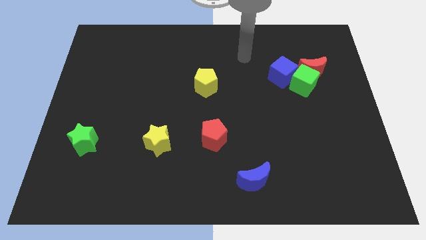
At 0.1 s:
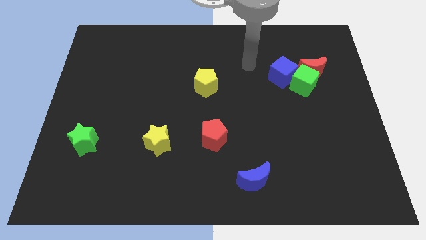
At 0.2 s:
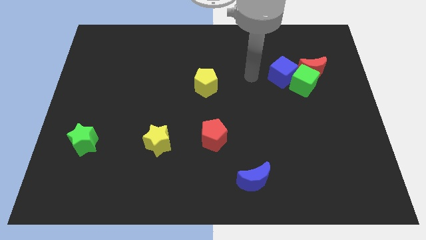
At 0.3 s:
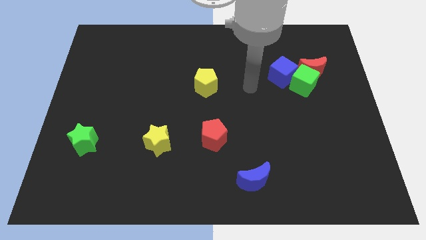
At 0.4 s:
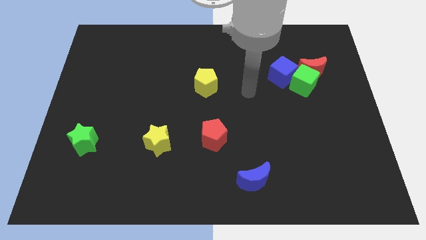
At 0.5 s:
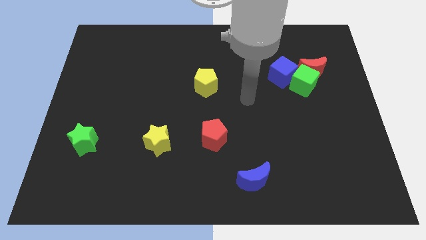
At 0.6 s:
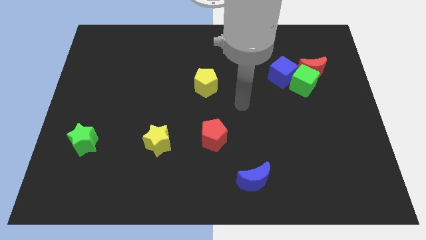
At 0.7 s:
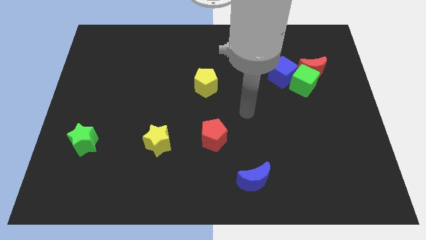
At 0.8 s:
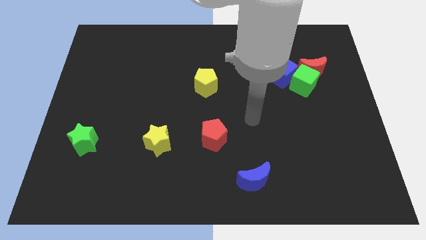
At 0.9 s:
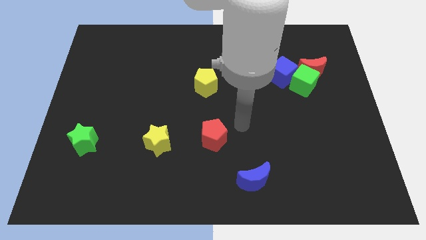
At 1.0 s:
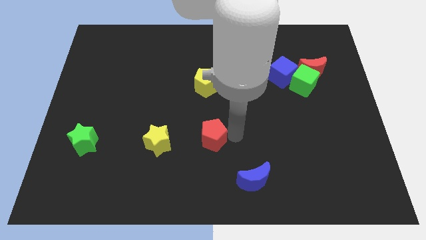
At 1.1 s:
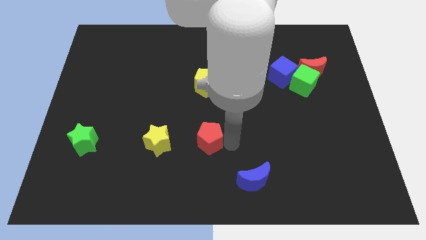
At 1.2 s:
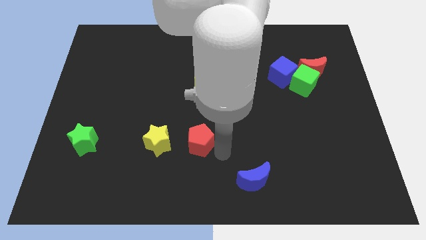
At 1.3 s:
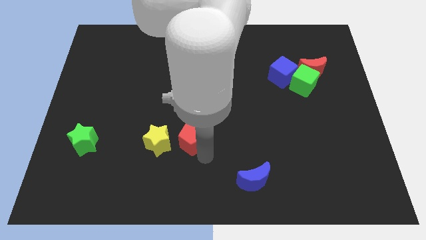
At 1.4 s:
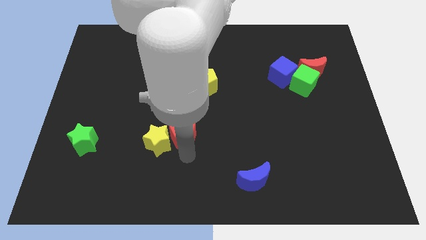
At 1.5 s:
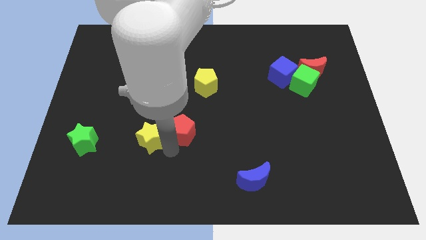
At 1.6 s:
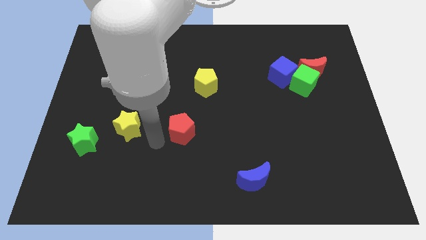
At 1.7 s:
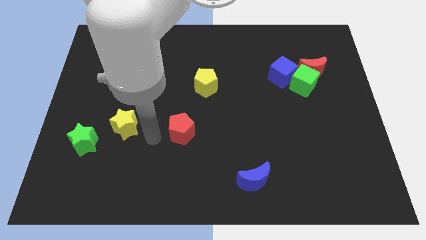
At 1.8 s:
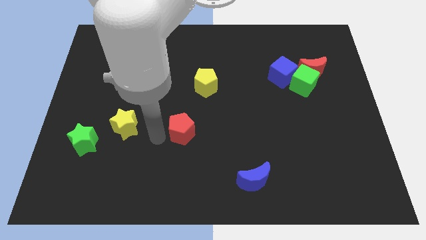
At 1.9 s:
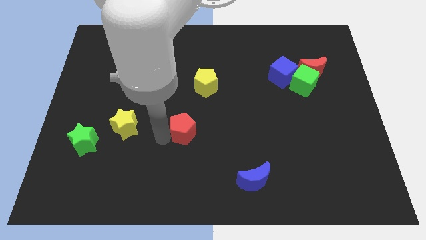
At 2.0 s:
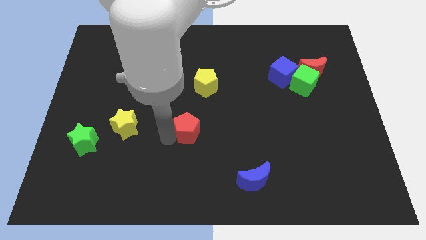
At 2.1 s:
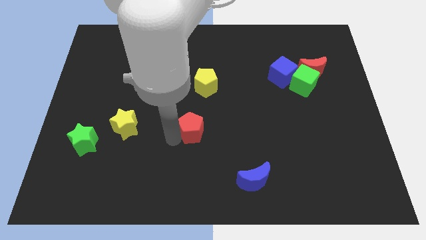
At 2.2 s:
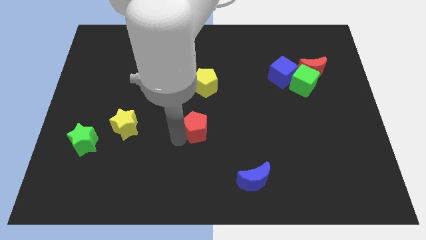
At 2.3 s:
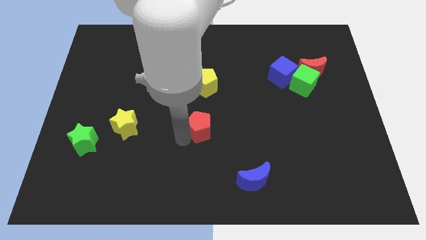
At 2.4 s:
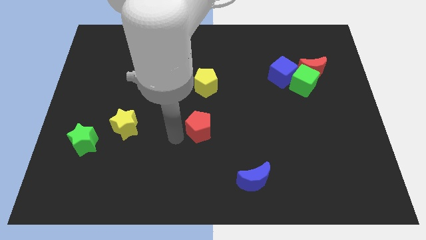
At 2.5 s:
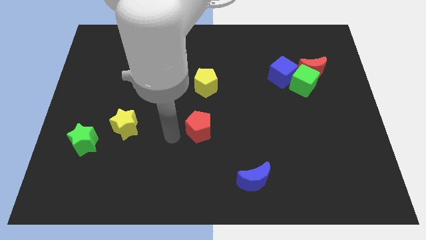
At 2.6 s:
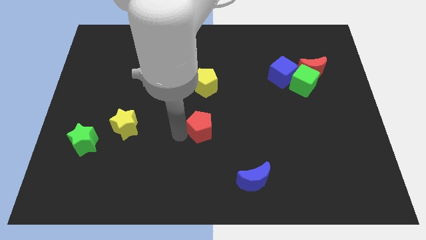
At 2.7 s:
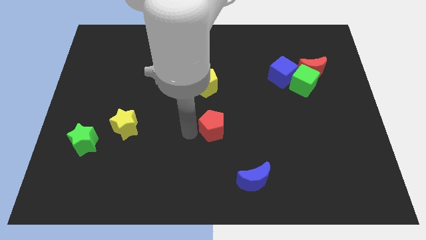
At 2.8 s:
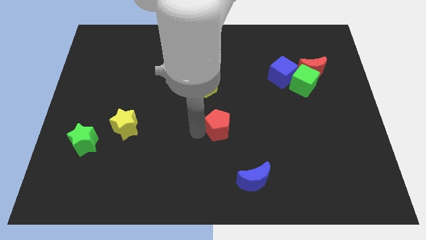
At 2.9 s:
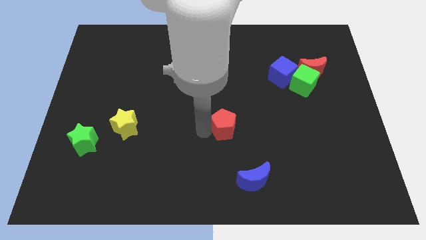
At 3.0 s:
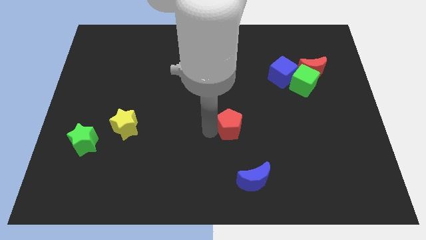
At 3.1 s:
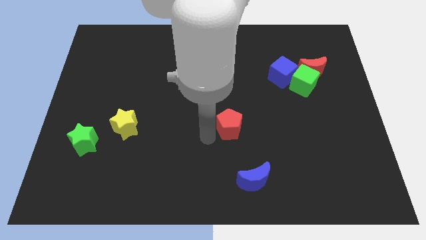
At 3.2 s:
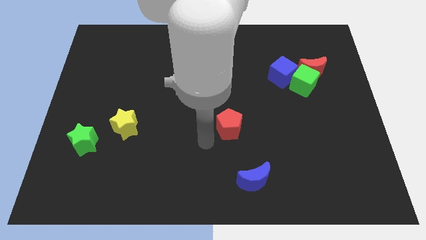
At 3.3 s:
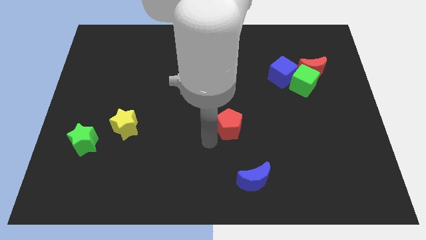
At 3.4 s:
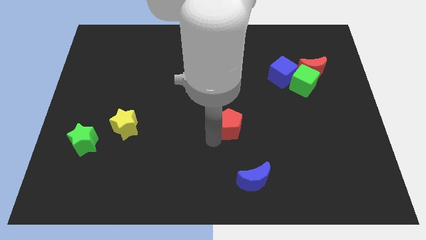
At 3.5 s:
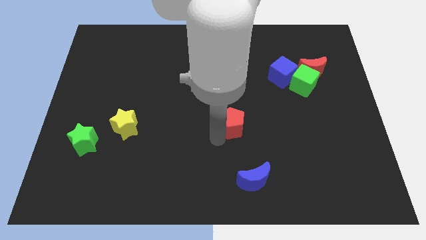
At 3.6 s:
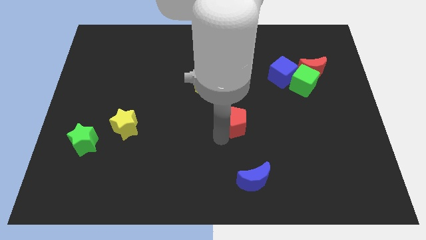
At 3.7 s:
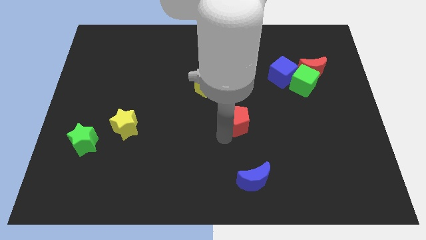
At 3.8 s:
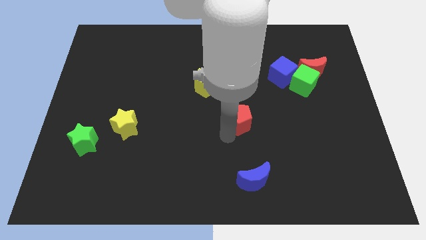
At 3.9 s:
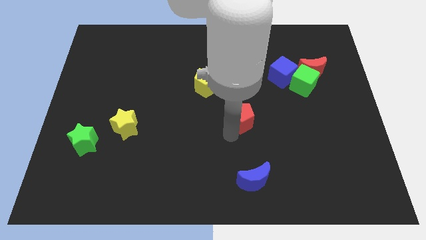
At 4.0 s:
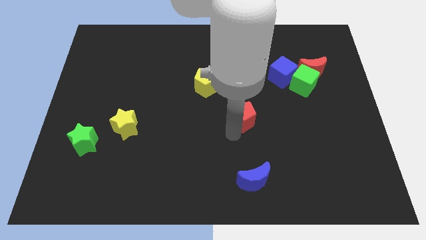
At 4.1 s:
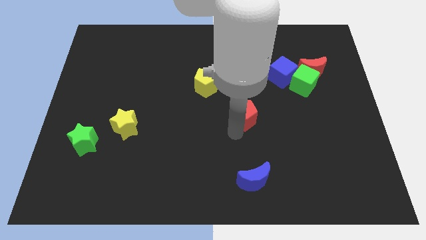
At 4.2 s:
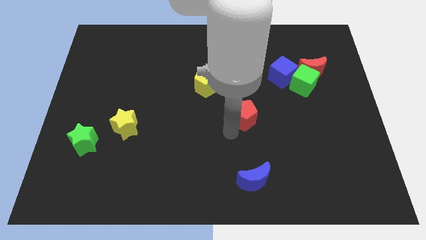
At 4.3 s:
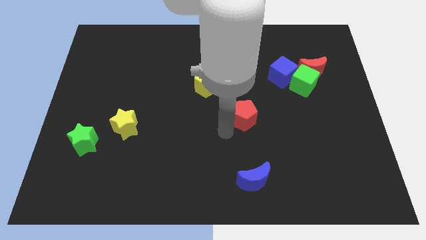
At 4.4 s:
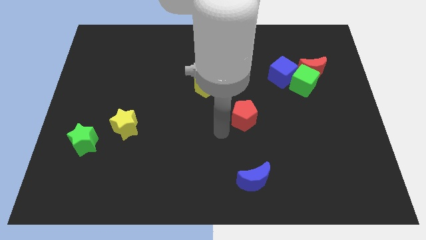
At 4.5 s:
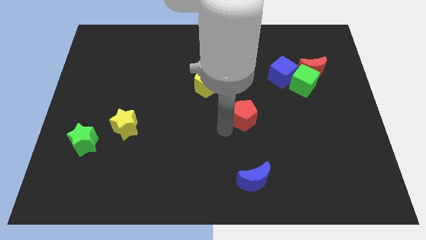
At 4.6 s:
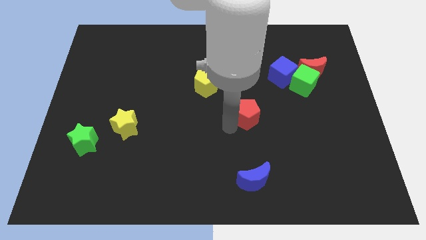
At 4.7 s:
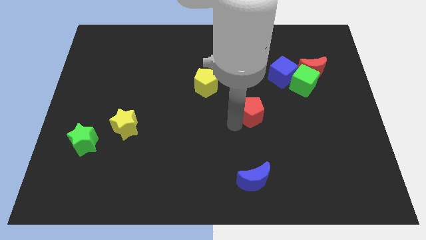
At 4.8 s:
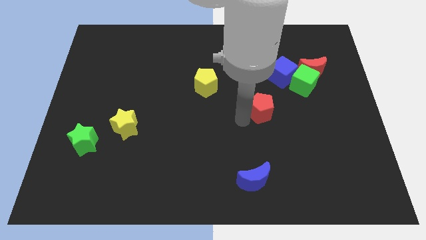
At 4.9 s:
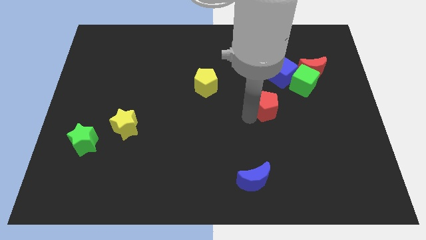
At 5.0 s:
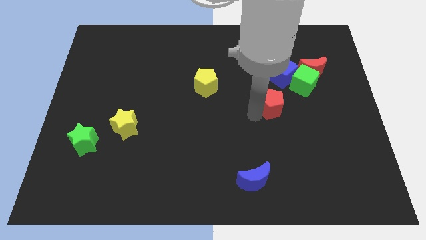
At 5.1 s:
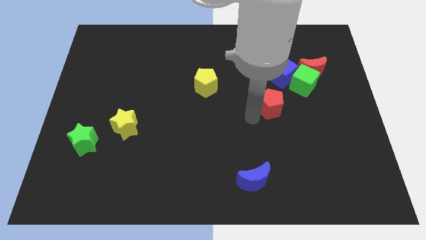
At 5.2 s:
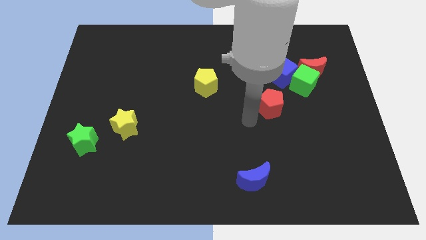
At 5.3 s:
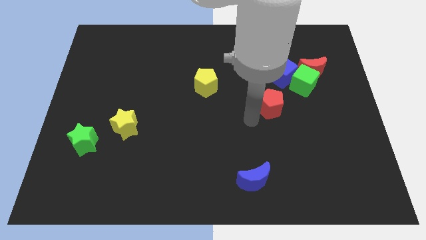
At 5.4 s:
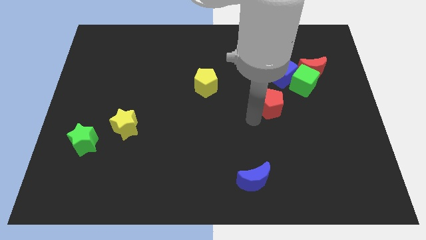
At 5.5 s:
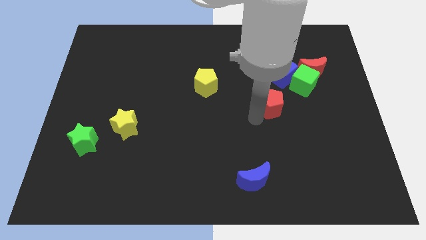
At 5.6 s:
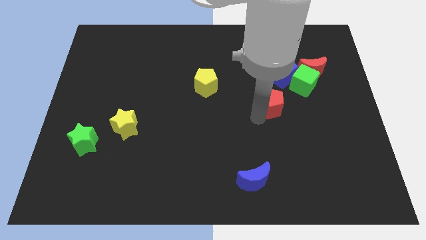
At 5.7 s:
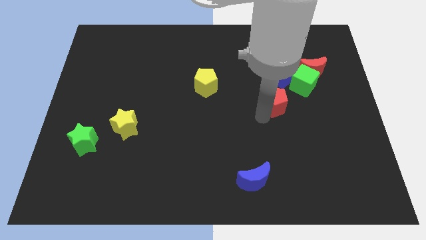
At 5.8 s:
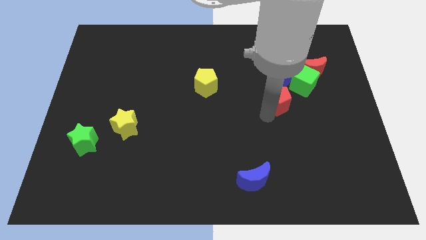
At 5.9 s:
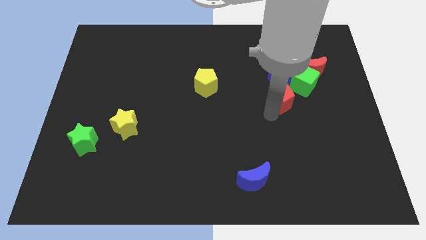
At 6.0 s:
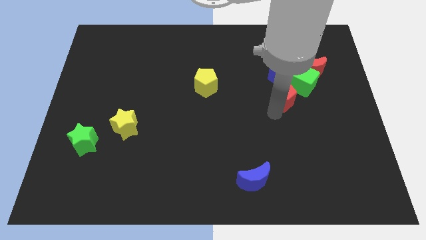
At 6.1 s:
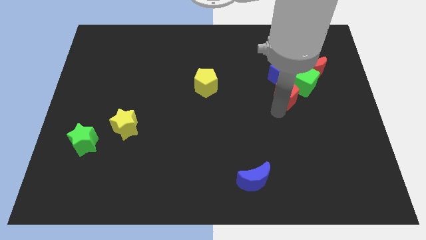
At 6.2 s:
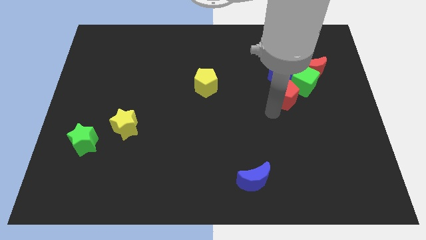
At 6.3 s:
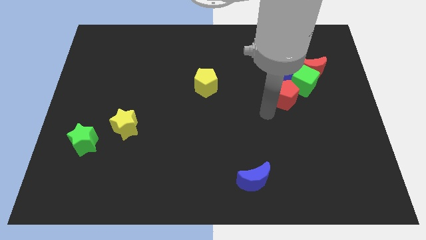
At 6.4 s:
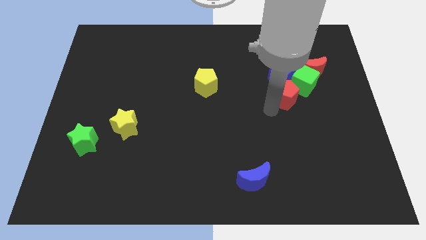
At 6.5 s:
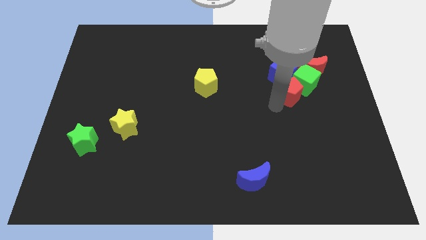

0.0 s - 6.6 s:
slide the red pentagon to the green cube

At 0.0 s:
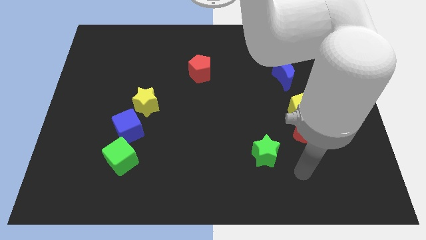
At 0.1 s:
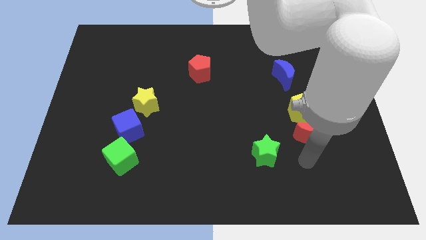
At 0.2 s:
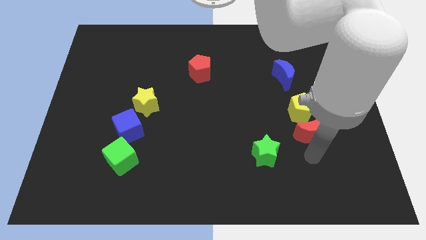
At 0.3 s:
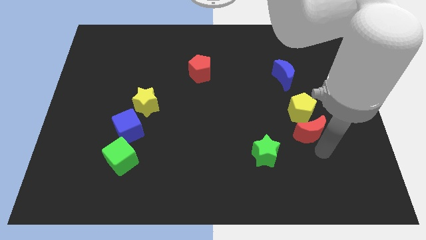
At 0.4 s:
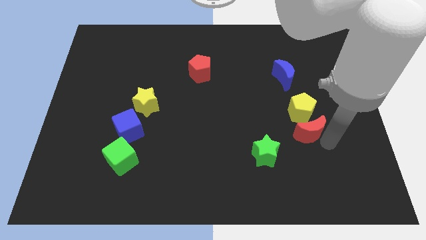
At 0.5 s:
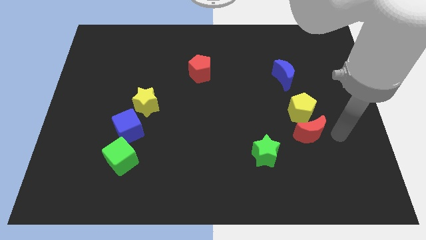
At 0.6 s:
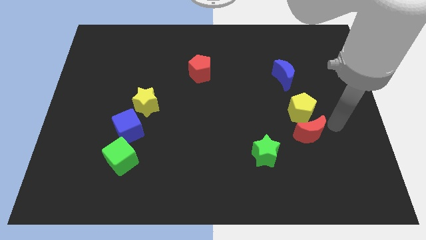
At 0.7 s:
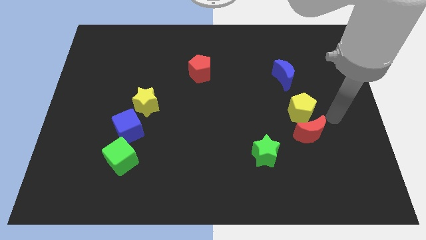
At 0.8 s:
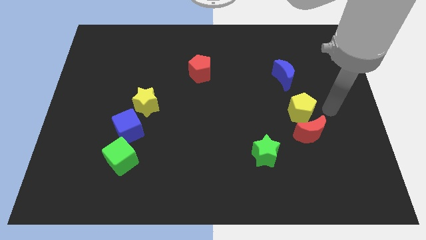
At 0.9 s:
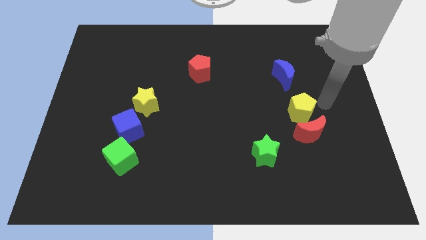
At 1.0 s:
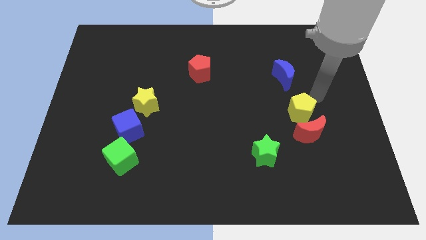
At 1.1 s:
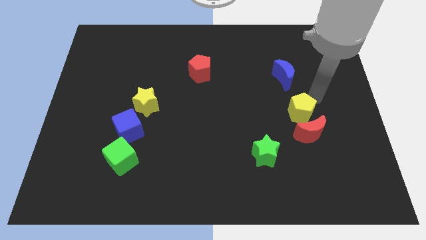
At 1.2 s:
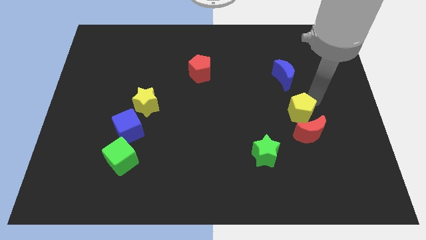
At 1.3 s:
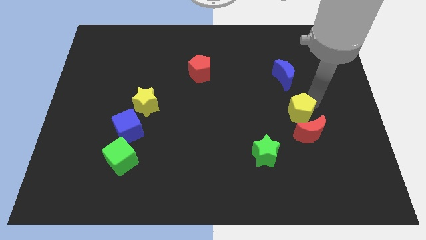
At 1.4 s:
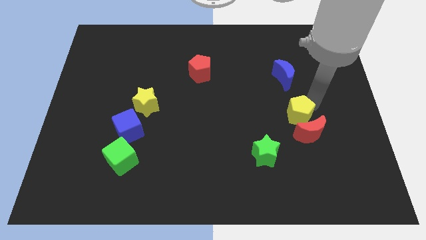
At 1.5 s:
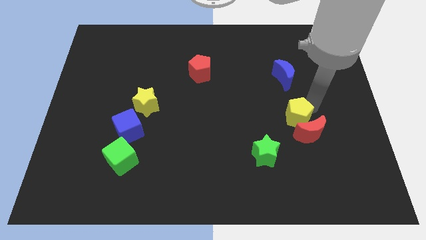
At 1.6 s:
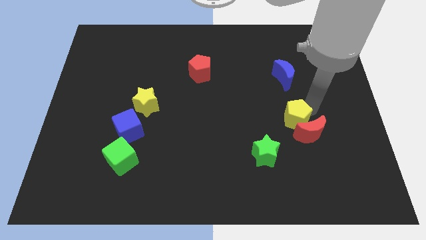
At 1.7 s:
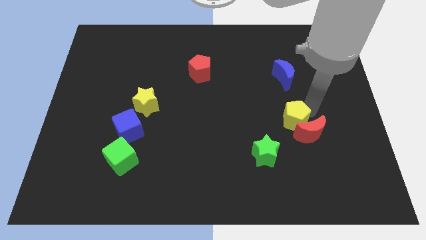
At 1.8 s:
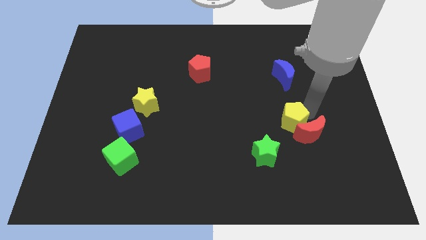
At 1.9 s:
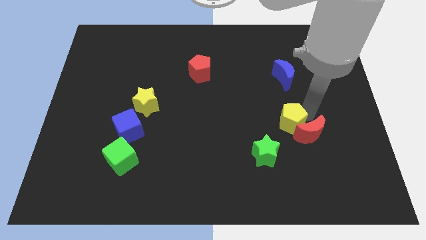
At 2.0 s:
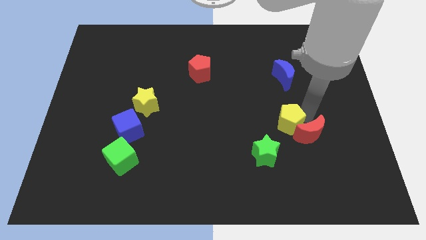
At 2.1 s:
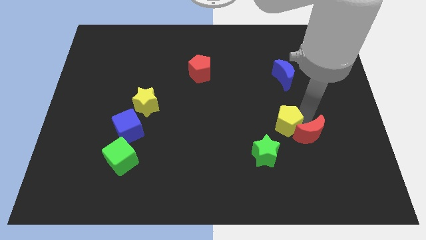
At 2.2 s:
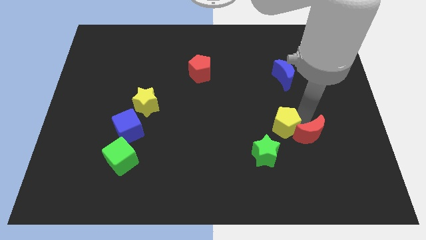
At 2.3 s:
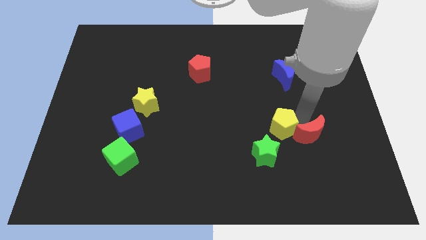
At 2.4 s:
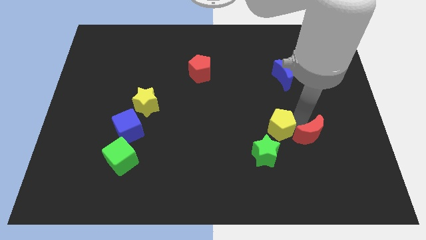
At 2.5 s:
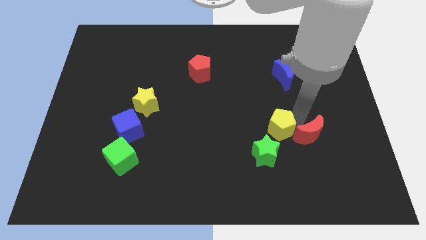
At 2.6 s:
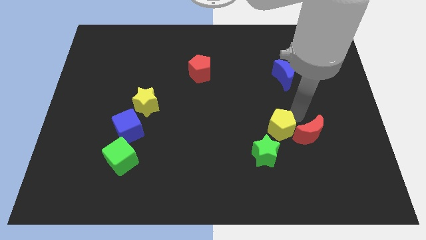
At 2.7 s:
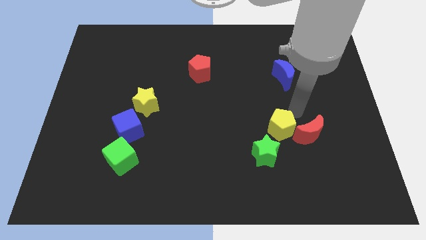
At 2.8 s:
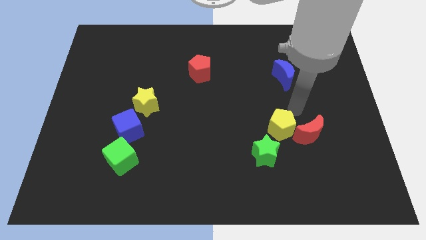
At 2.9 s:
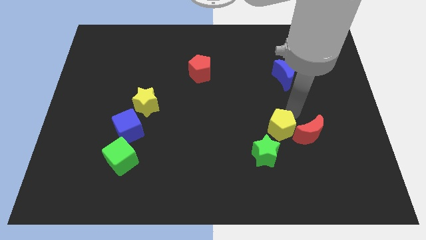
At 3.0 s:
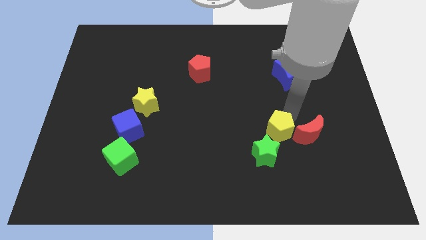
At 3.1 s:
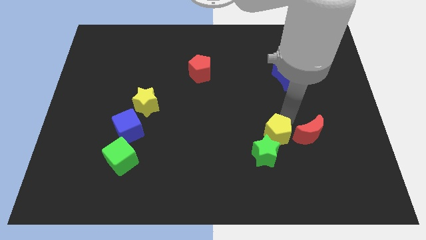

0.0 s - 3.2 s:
put the yellow pentagon close to the green star
